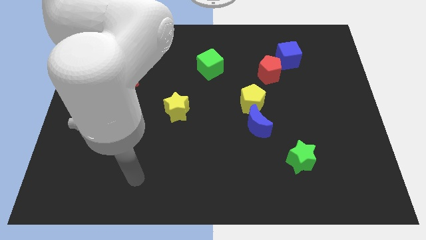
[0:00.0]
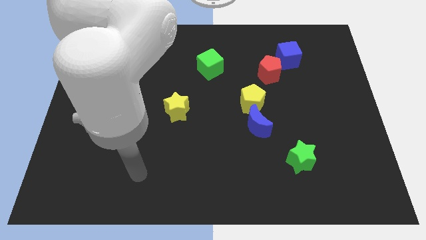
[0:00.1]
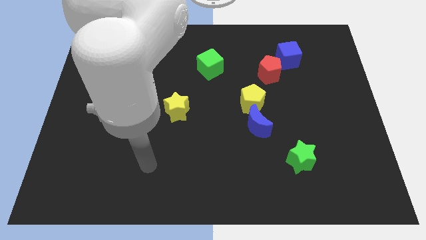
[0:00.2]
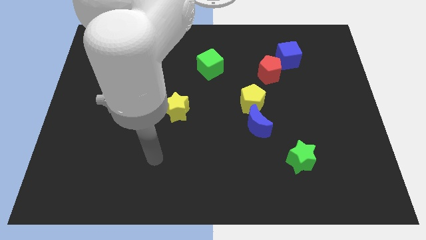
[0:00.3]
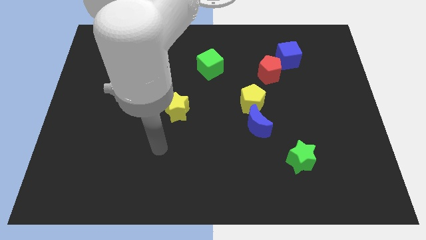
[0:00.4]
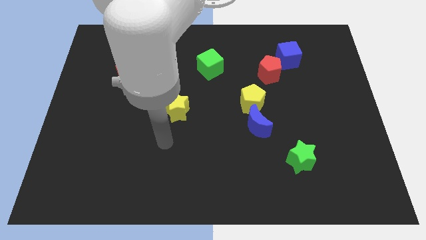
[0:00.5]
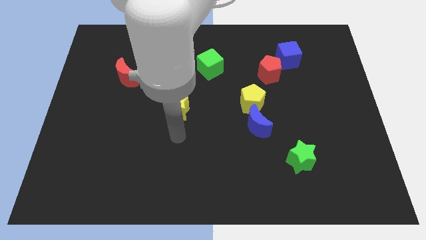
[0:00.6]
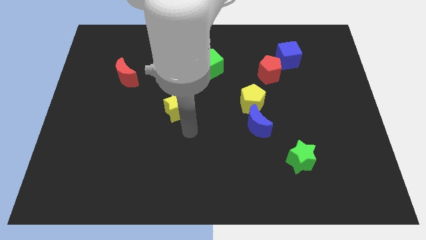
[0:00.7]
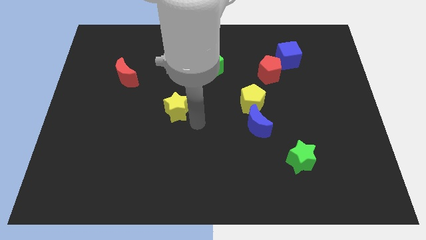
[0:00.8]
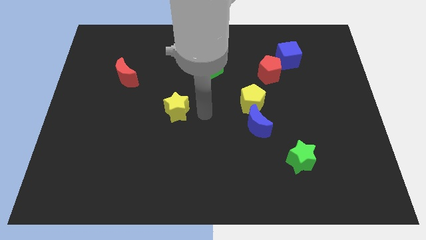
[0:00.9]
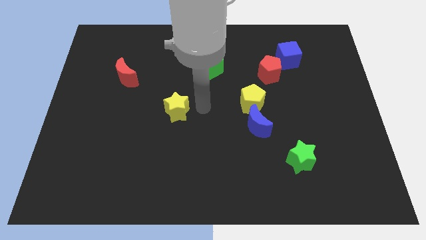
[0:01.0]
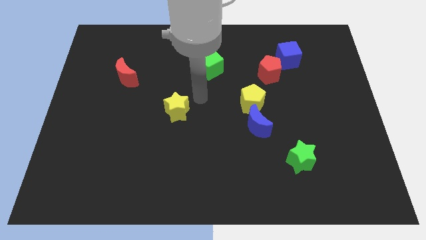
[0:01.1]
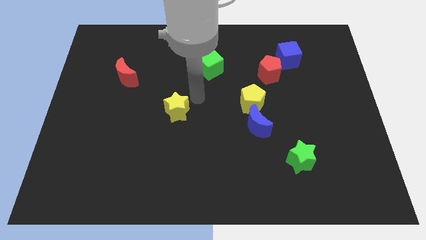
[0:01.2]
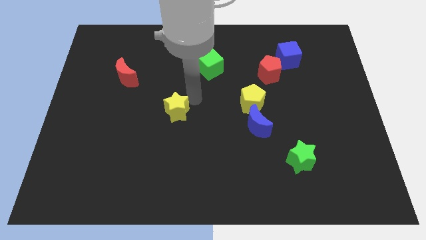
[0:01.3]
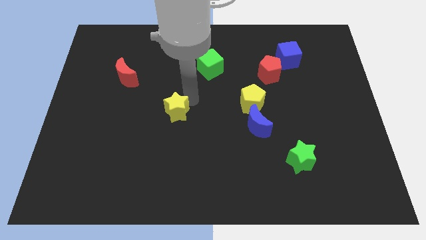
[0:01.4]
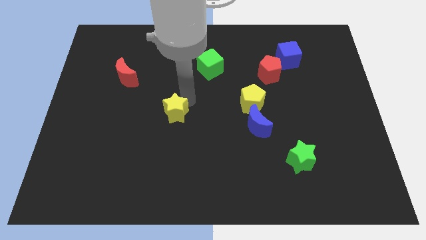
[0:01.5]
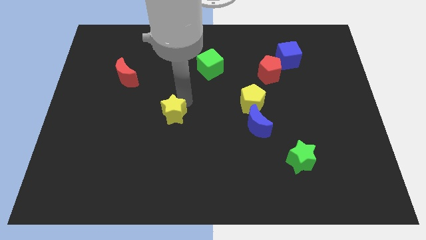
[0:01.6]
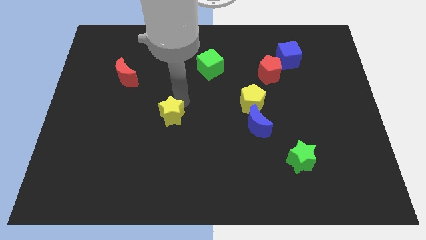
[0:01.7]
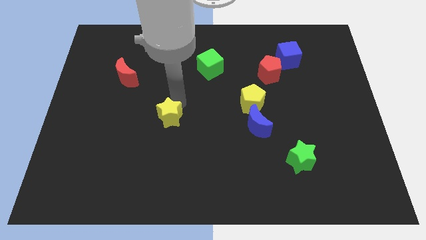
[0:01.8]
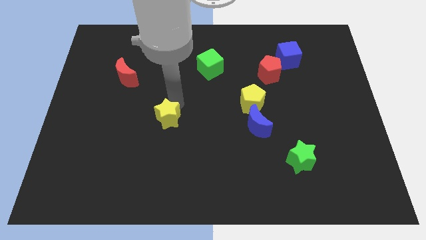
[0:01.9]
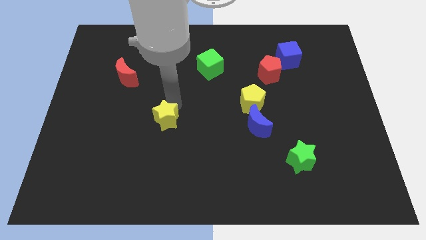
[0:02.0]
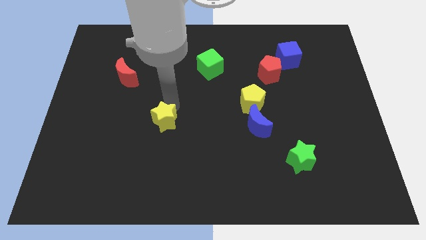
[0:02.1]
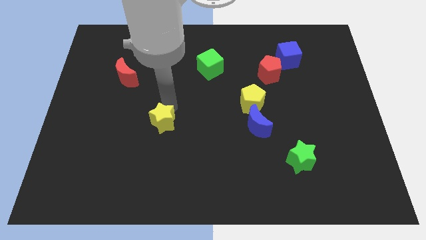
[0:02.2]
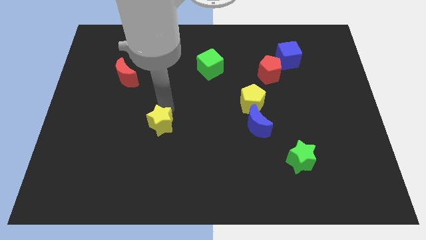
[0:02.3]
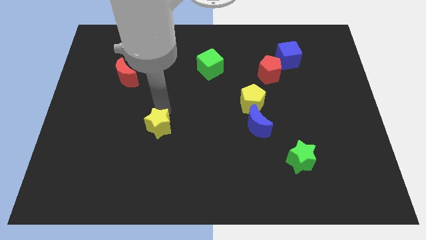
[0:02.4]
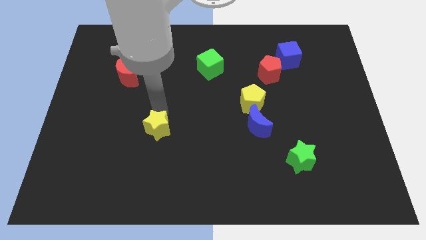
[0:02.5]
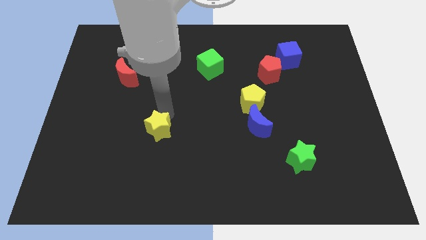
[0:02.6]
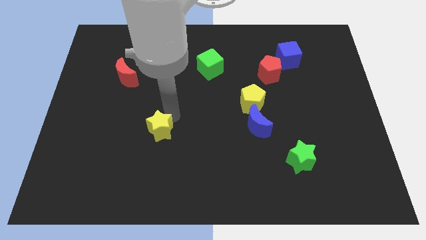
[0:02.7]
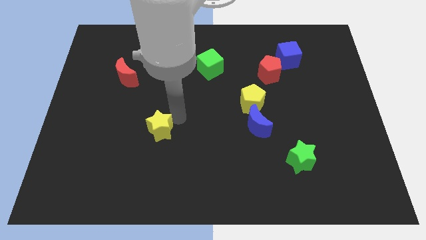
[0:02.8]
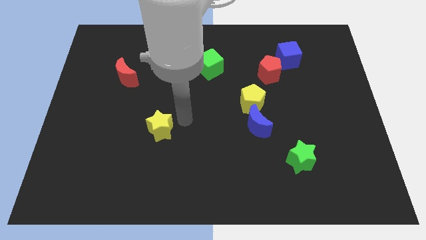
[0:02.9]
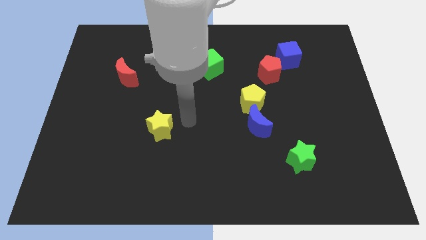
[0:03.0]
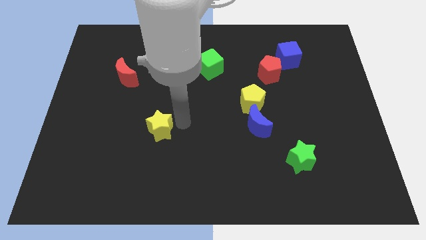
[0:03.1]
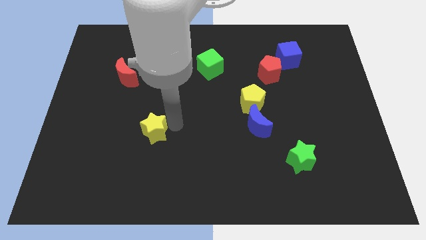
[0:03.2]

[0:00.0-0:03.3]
slightly slide the yellow star diagonally downwards and to the left

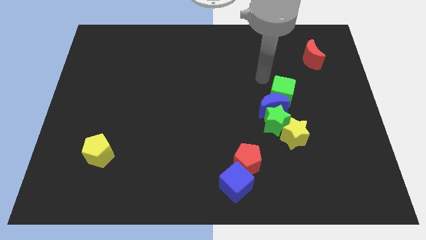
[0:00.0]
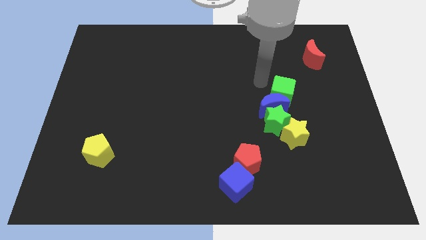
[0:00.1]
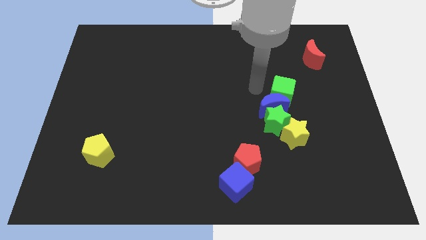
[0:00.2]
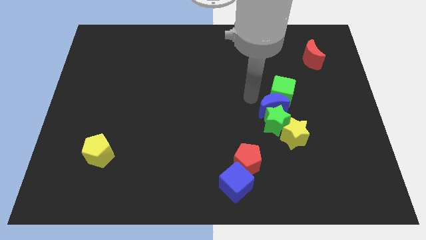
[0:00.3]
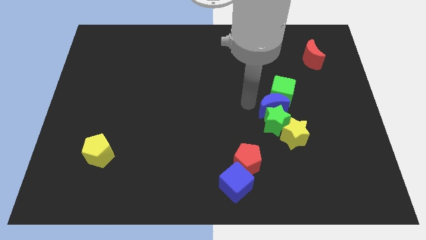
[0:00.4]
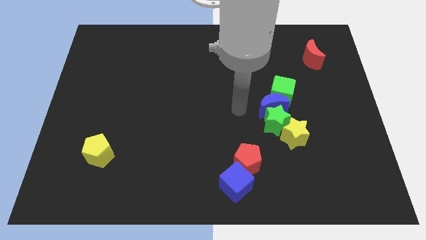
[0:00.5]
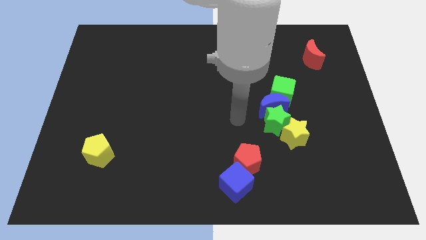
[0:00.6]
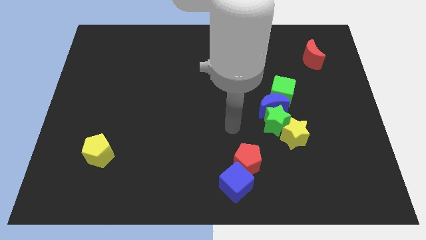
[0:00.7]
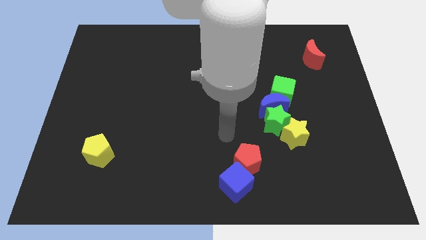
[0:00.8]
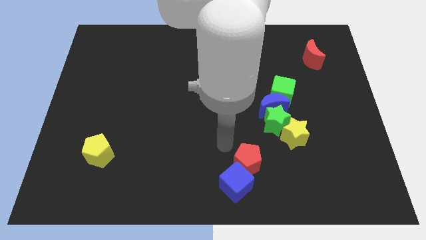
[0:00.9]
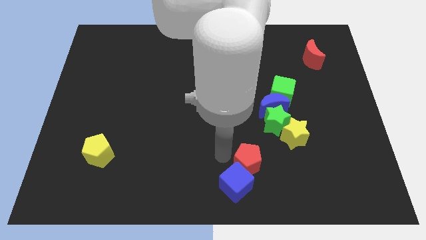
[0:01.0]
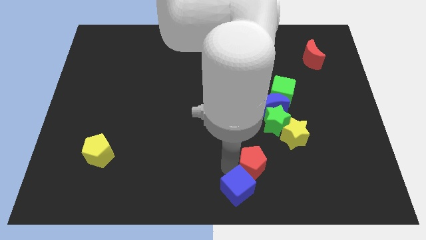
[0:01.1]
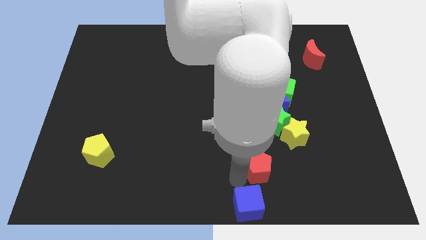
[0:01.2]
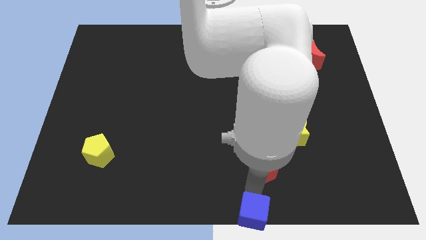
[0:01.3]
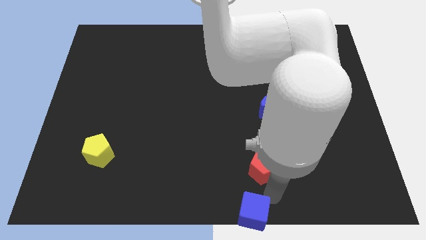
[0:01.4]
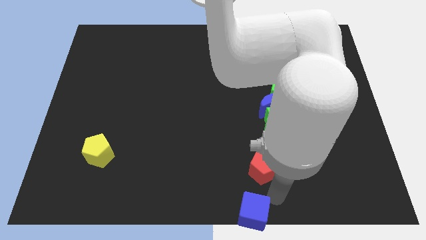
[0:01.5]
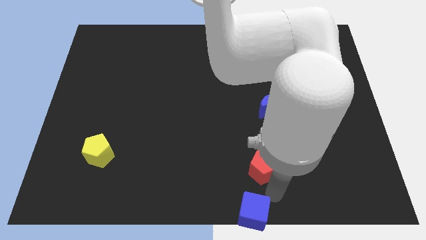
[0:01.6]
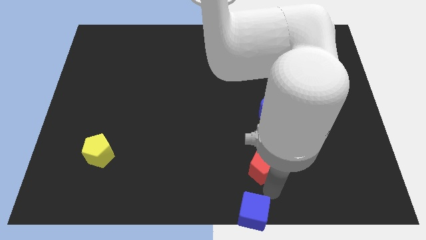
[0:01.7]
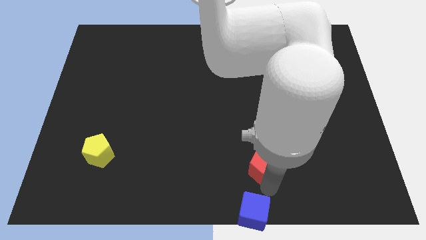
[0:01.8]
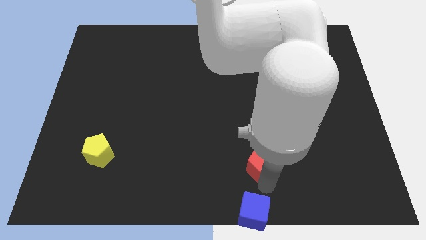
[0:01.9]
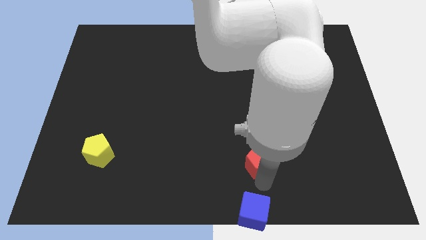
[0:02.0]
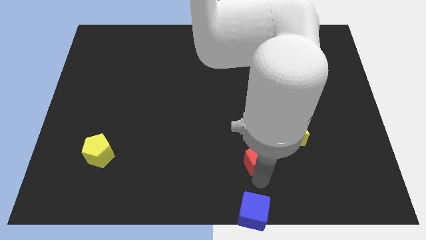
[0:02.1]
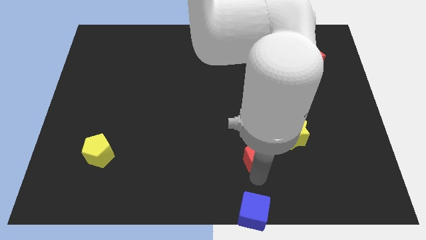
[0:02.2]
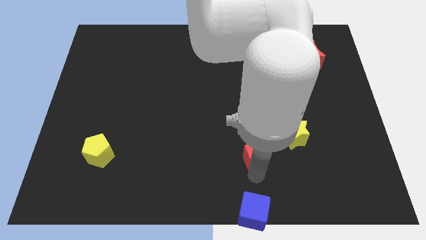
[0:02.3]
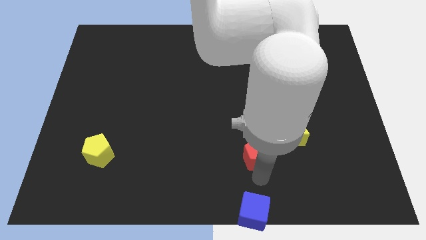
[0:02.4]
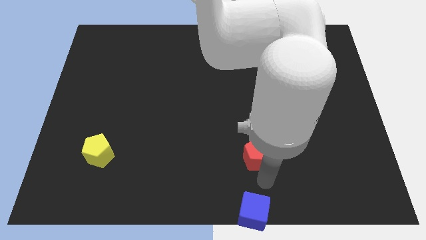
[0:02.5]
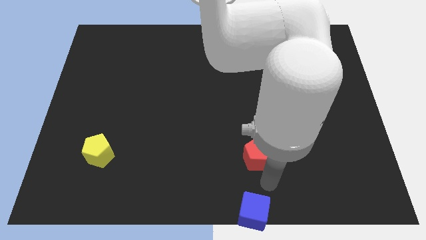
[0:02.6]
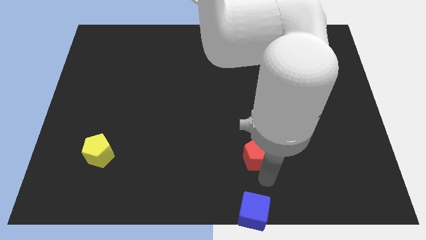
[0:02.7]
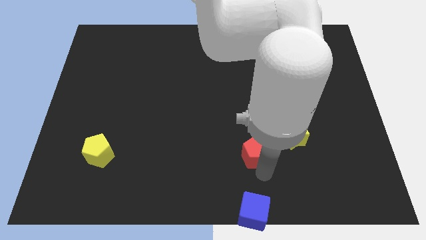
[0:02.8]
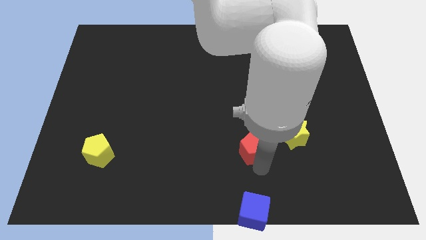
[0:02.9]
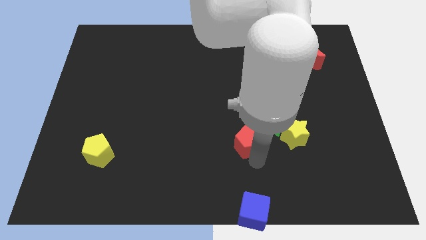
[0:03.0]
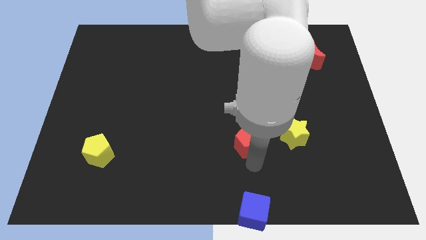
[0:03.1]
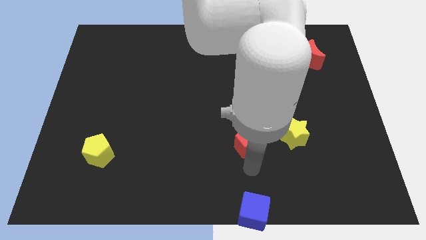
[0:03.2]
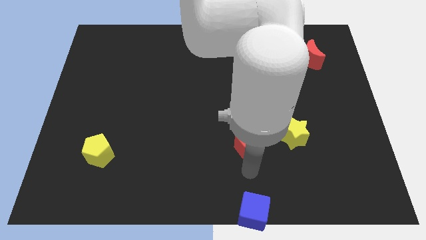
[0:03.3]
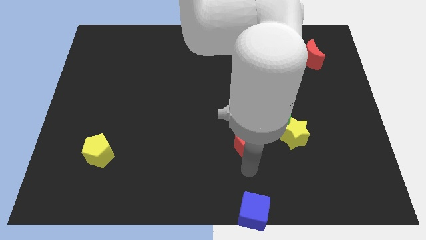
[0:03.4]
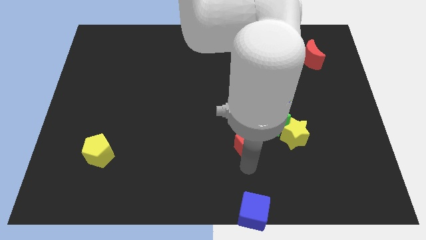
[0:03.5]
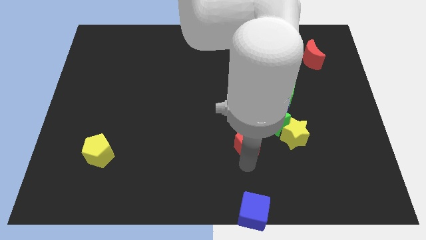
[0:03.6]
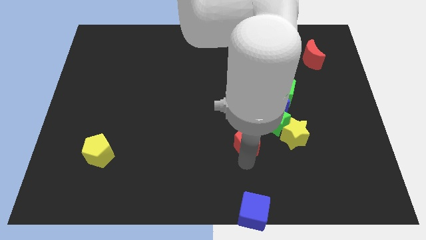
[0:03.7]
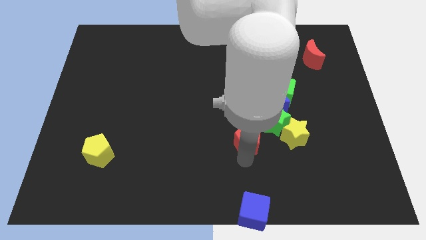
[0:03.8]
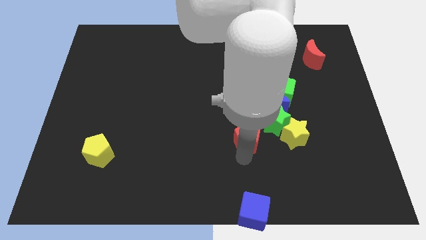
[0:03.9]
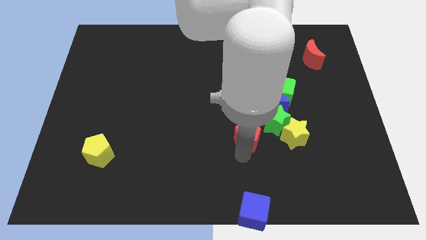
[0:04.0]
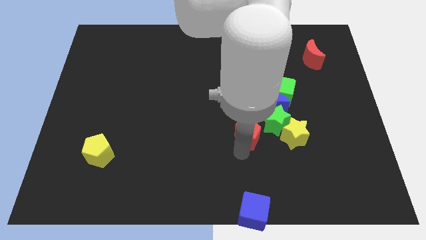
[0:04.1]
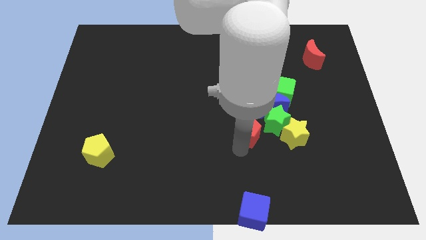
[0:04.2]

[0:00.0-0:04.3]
move the red pentagon slightly up

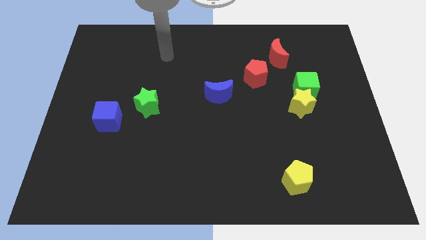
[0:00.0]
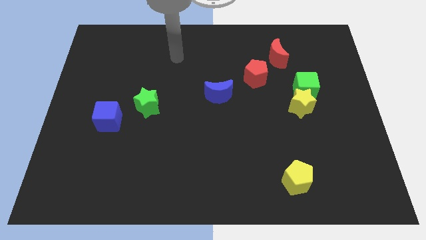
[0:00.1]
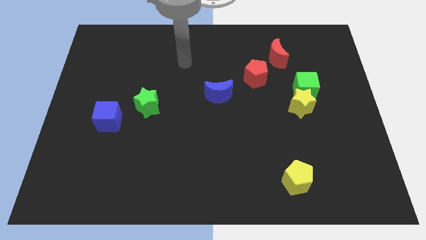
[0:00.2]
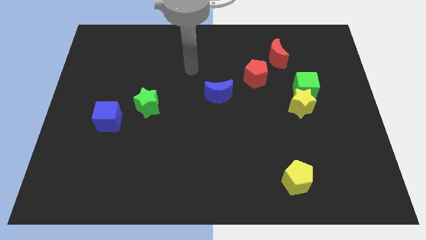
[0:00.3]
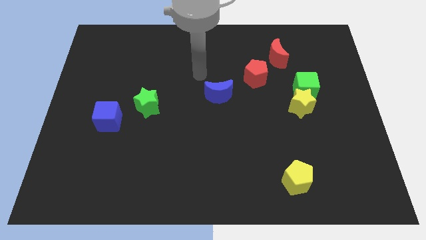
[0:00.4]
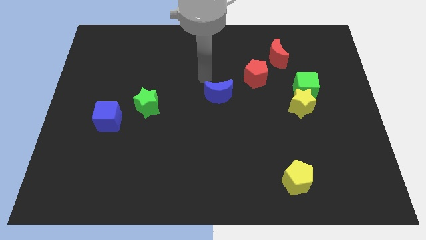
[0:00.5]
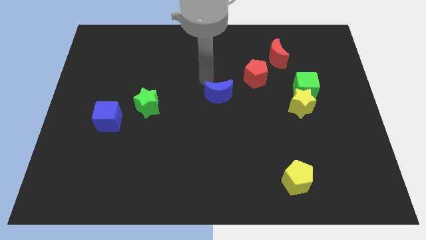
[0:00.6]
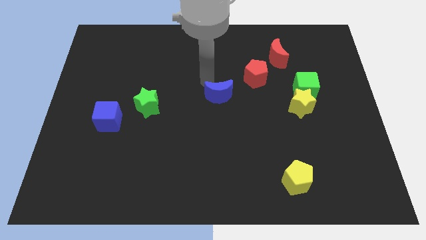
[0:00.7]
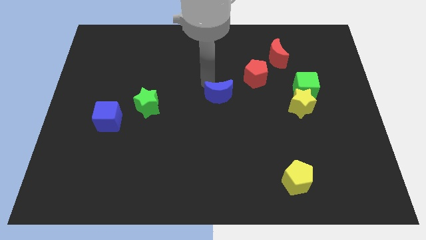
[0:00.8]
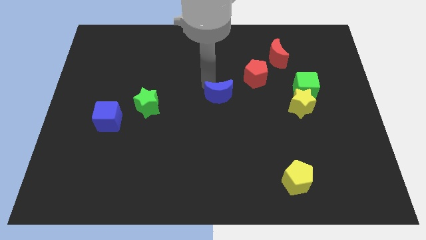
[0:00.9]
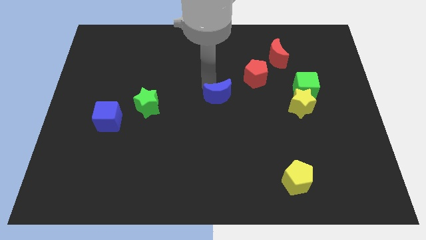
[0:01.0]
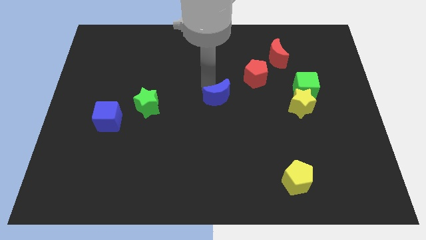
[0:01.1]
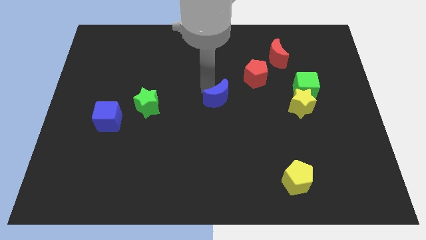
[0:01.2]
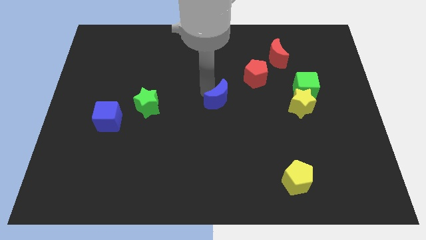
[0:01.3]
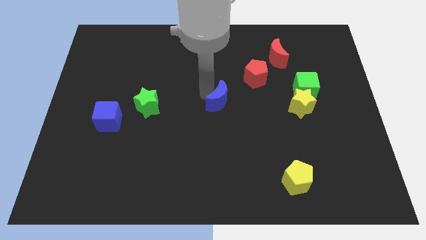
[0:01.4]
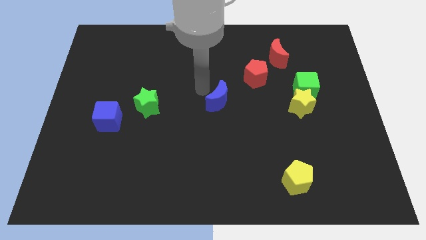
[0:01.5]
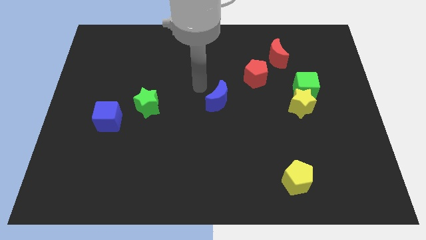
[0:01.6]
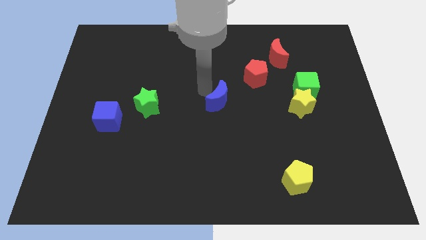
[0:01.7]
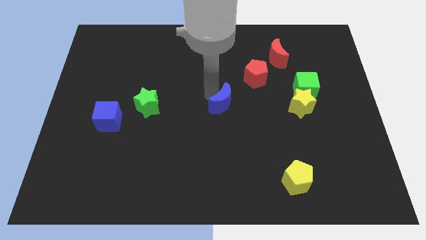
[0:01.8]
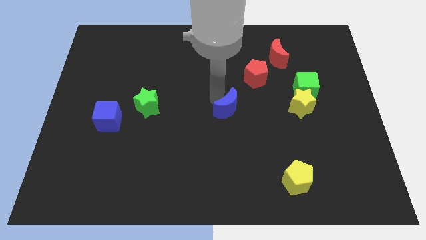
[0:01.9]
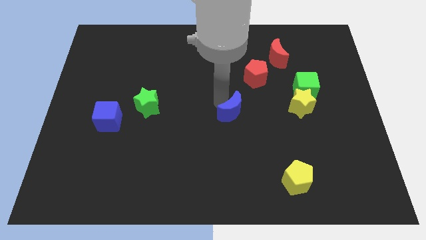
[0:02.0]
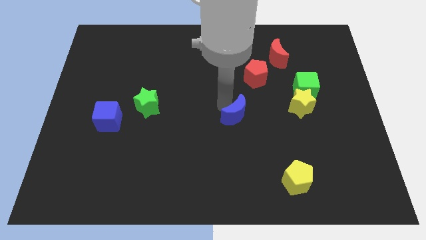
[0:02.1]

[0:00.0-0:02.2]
slightly slide the blue moon down and then right
